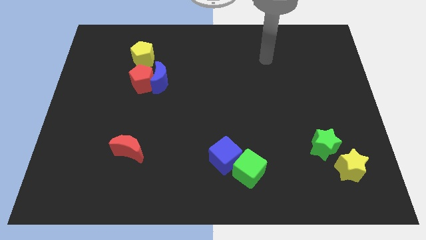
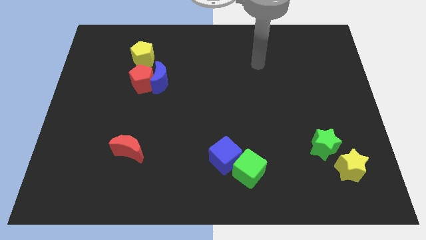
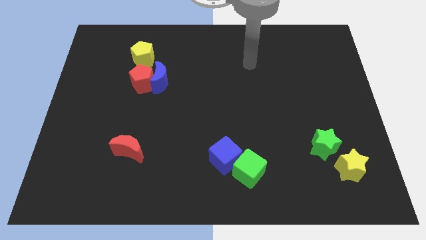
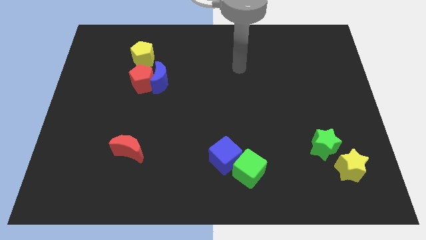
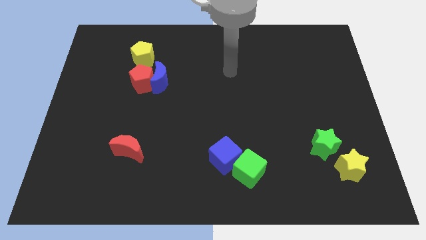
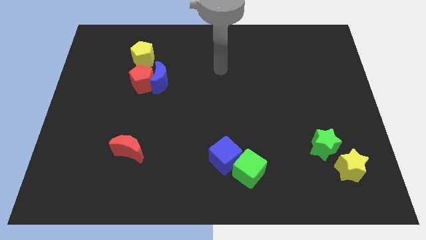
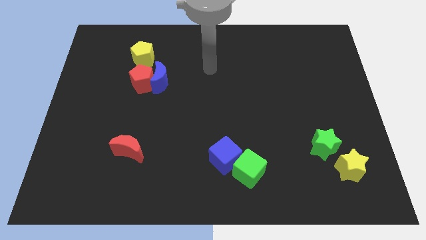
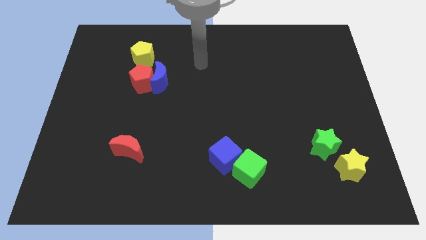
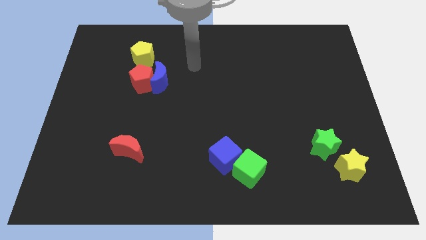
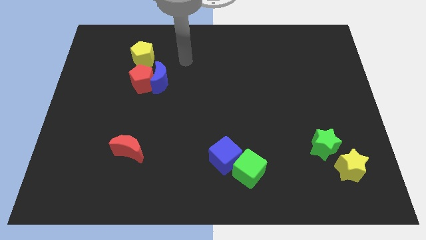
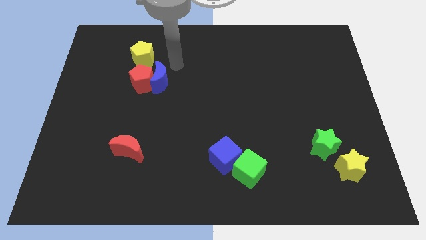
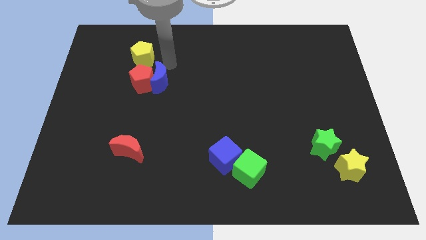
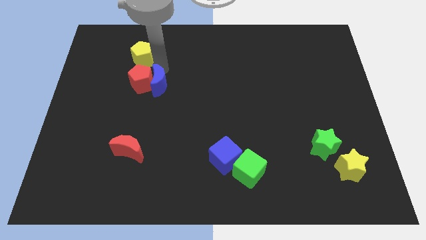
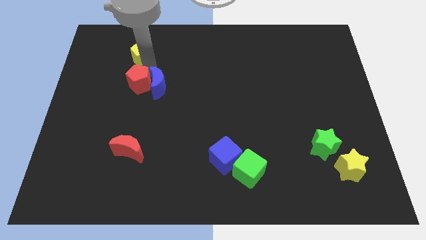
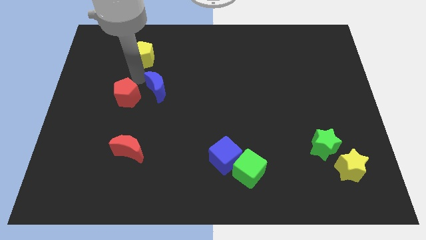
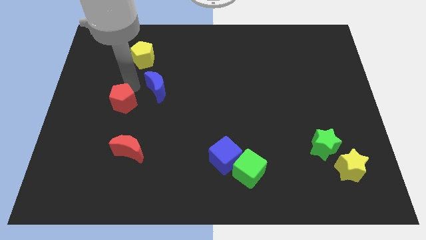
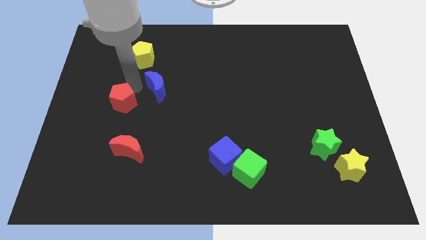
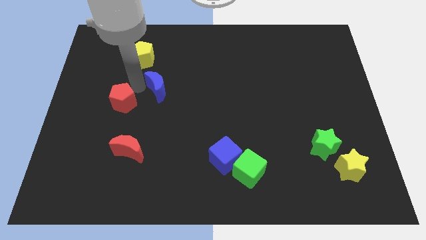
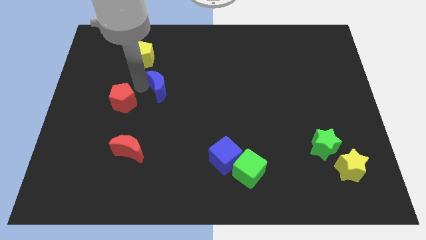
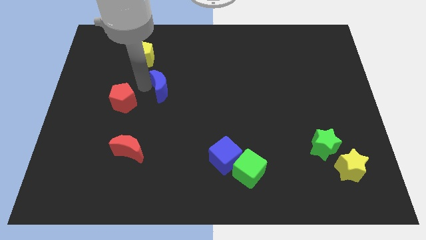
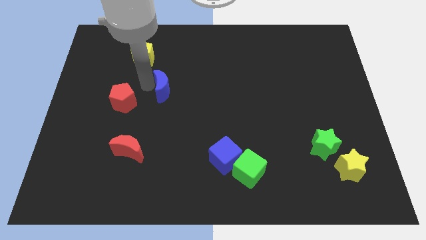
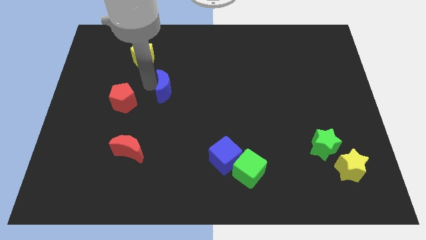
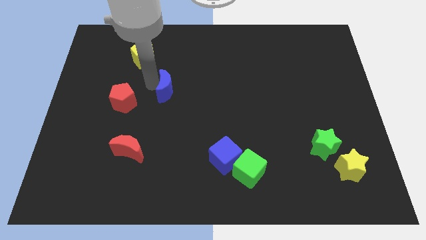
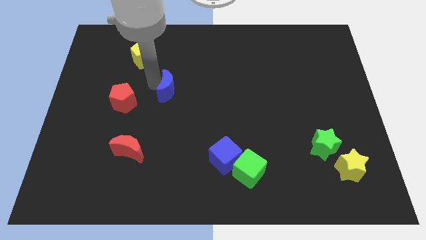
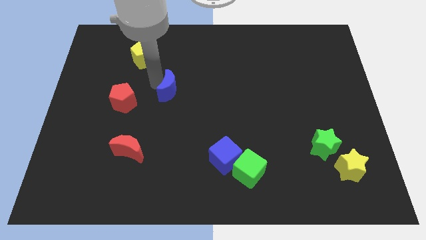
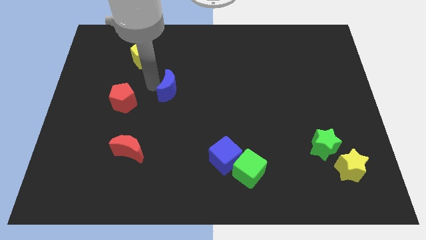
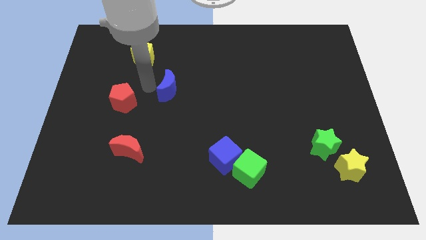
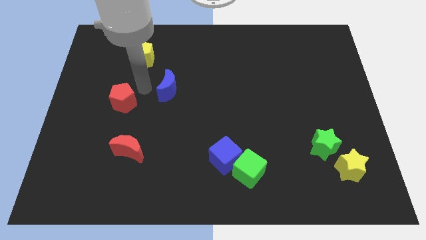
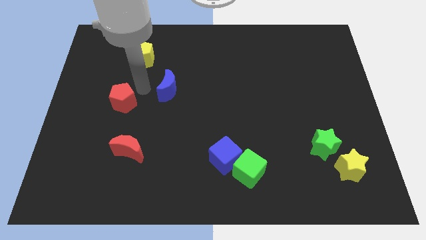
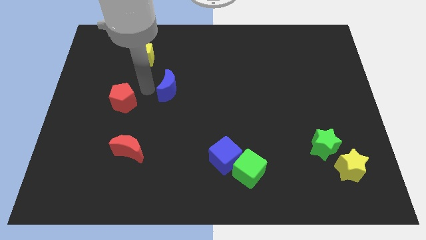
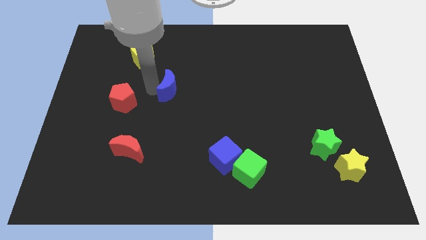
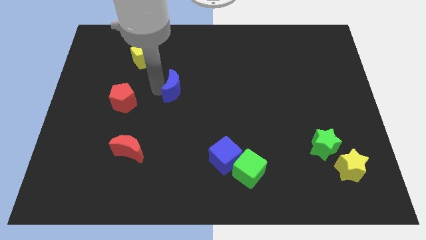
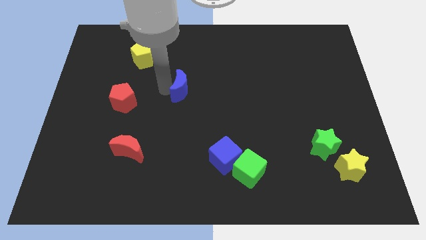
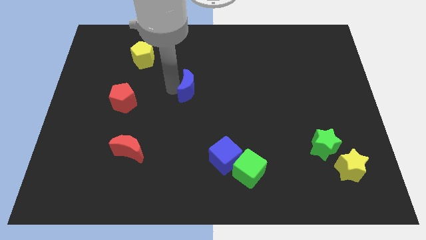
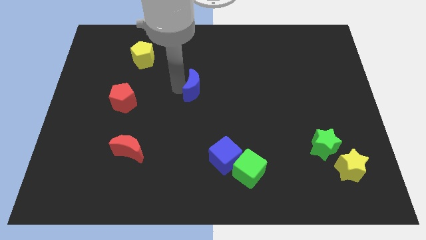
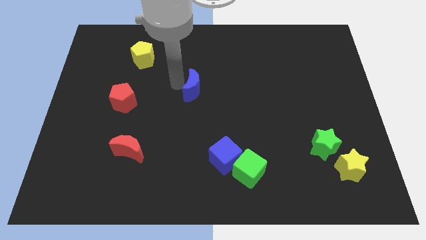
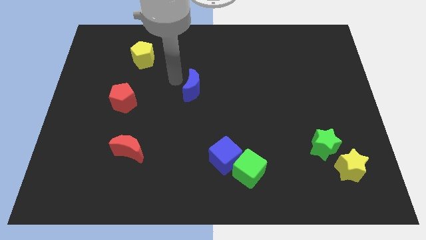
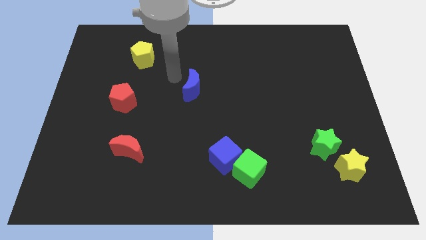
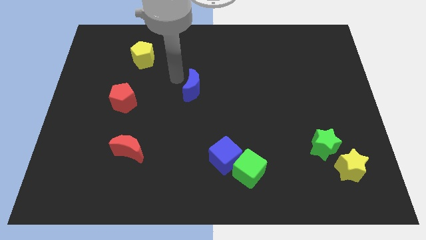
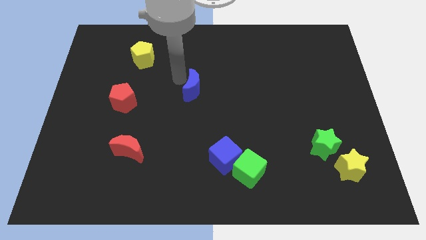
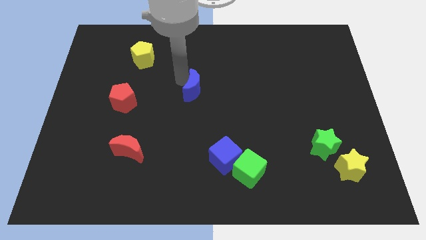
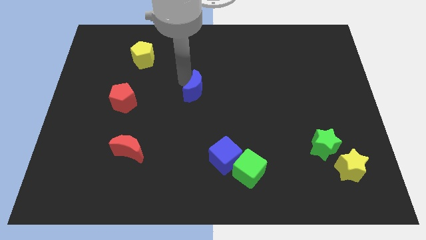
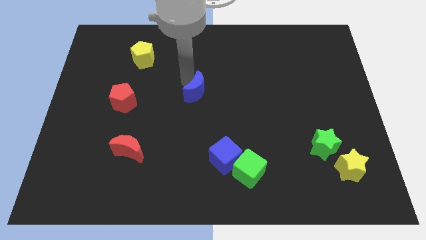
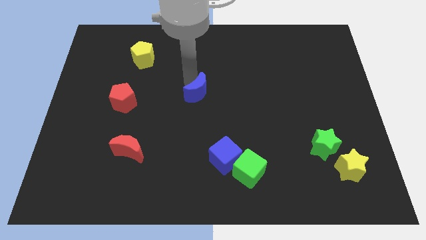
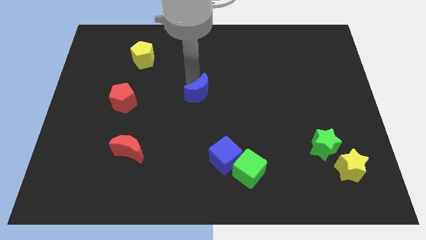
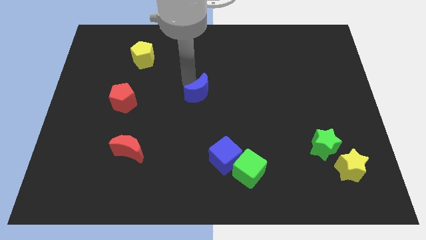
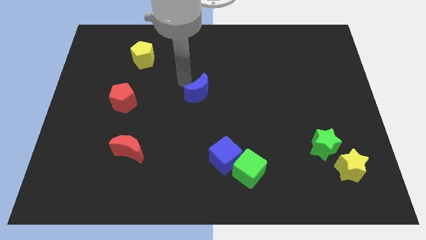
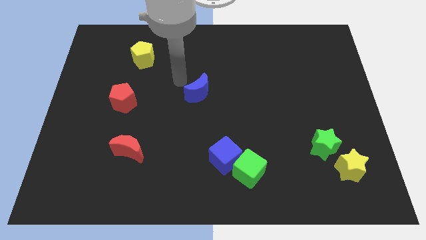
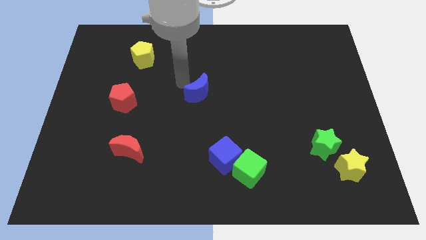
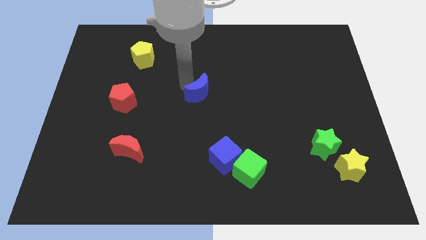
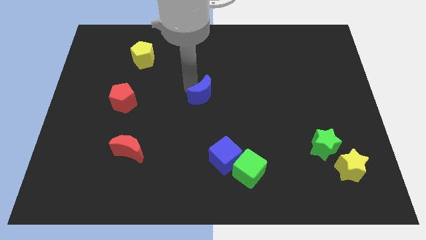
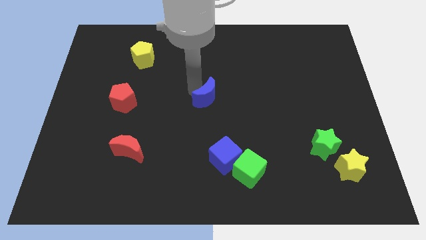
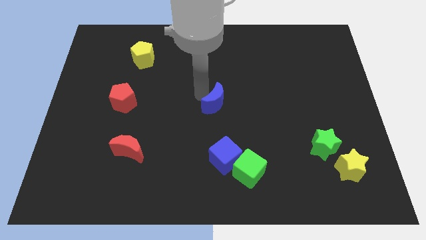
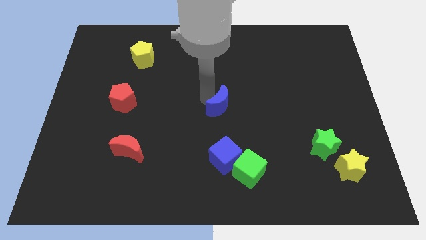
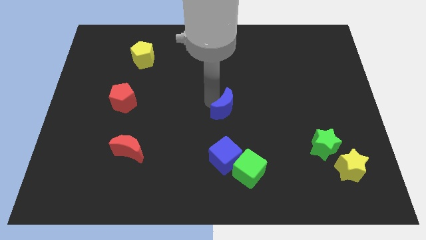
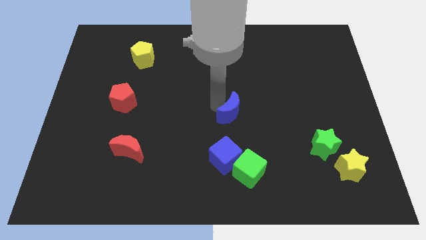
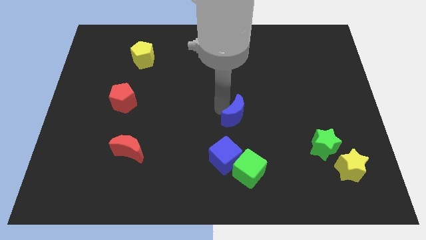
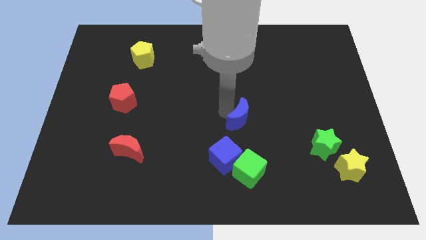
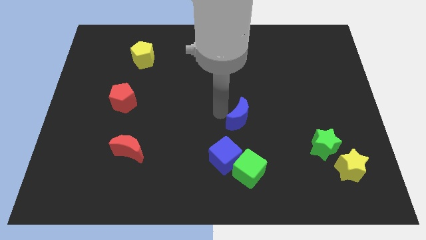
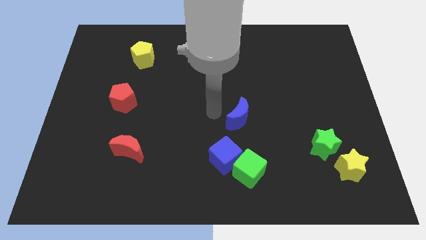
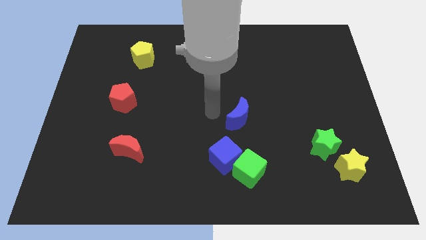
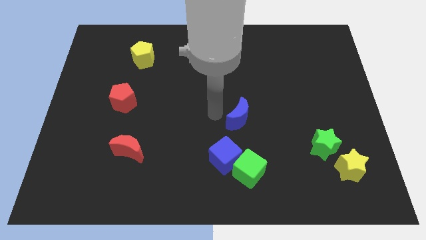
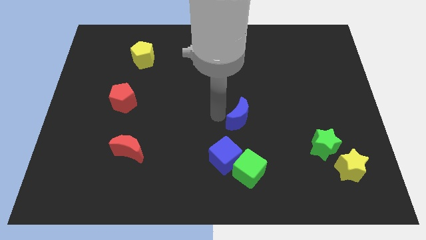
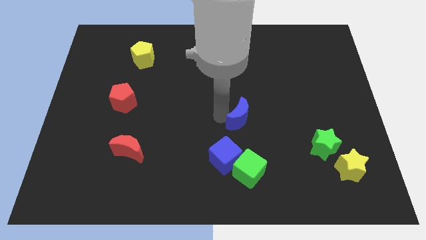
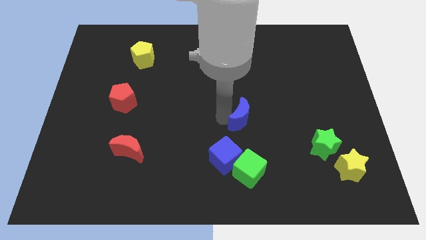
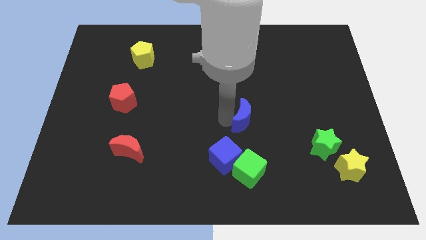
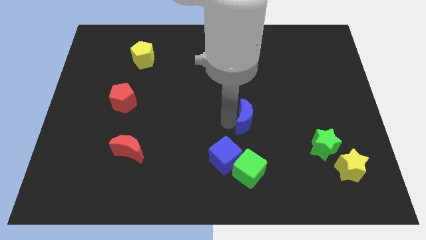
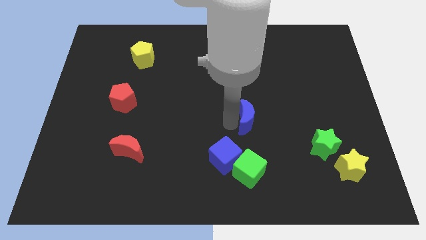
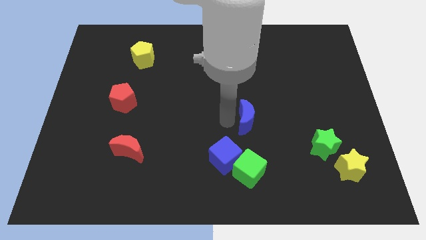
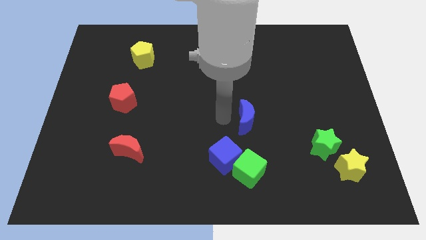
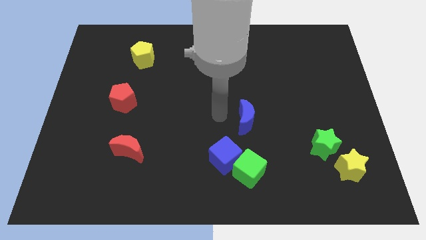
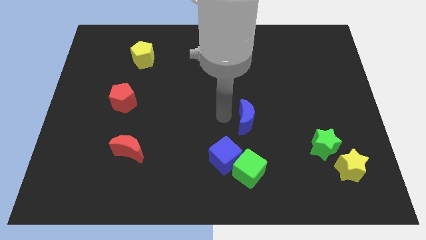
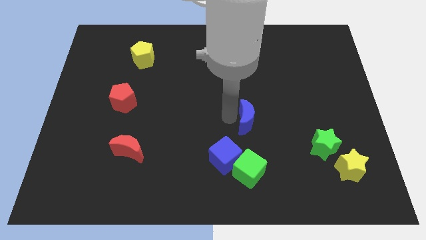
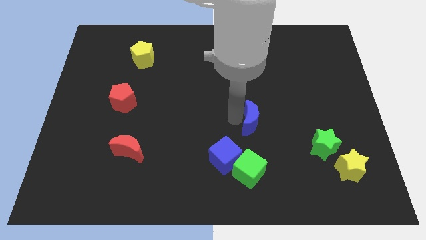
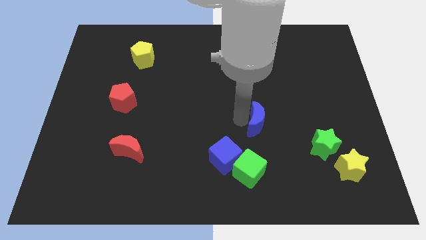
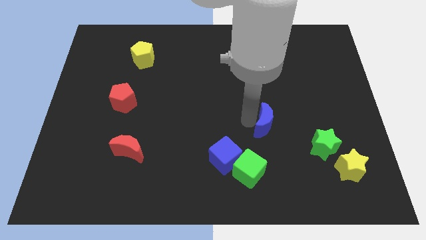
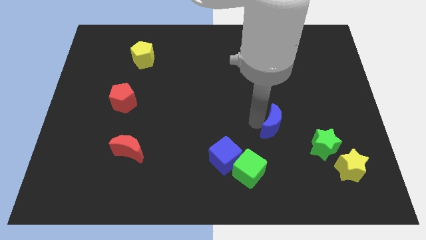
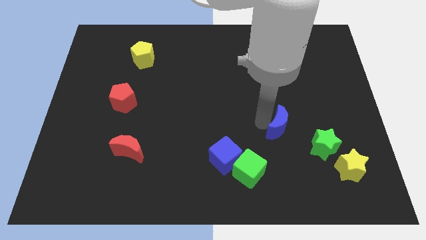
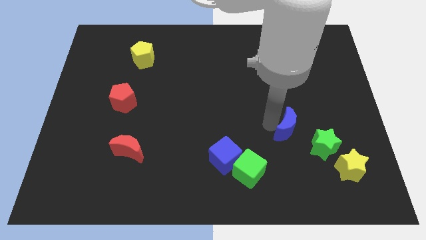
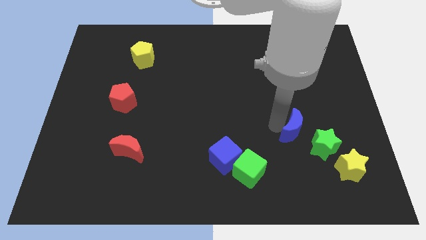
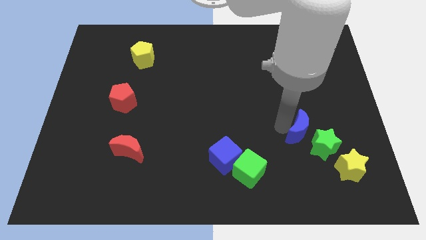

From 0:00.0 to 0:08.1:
put the blue moon diagonally up and to the left of the yellow star
